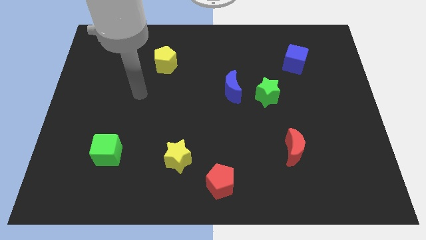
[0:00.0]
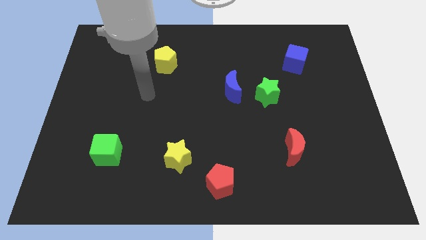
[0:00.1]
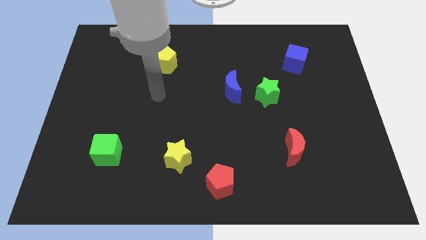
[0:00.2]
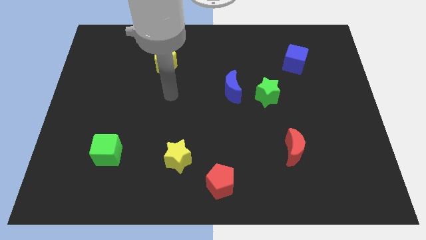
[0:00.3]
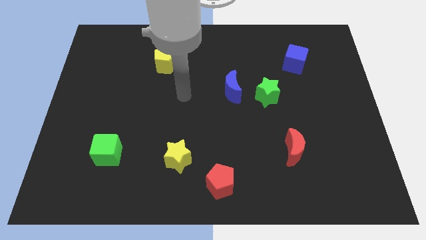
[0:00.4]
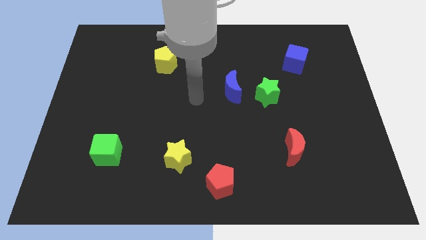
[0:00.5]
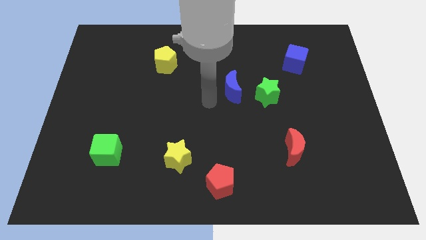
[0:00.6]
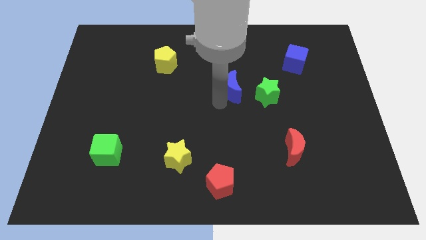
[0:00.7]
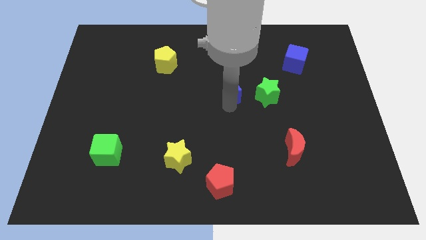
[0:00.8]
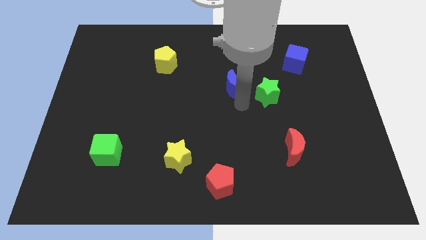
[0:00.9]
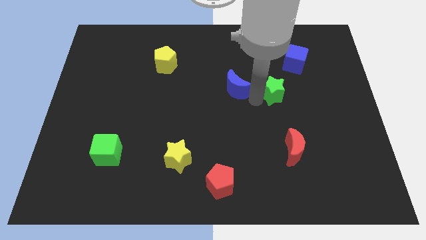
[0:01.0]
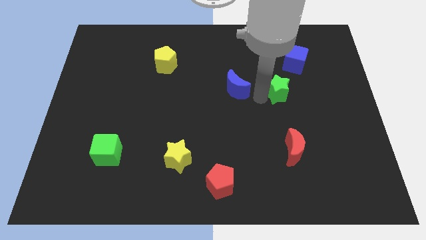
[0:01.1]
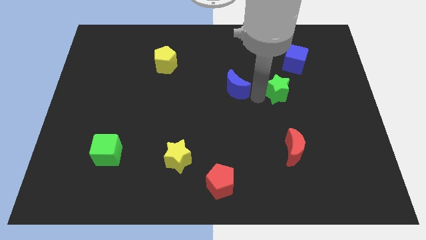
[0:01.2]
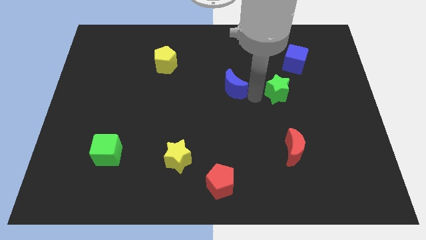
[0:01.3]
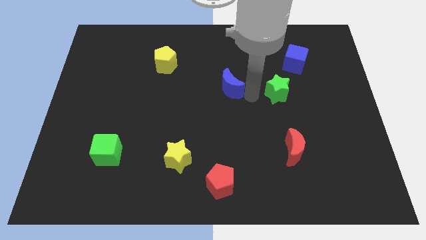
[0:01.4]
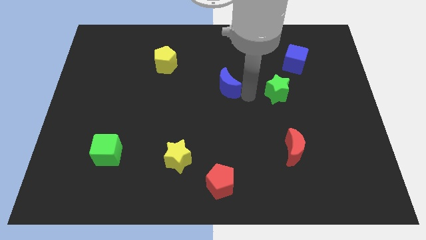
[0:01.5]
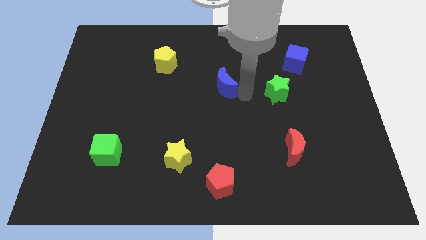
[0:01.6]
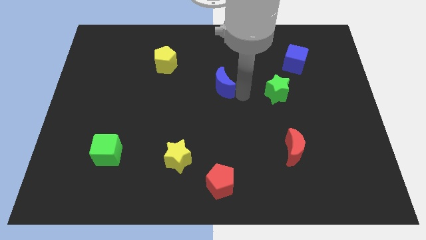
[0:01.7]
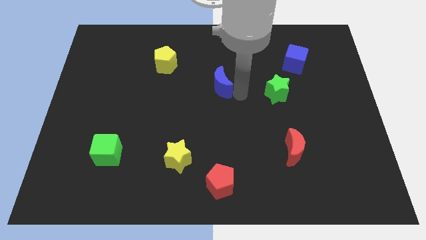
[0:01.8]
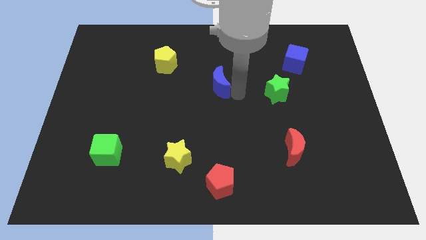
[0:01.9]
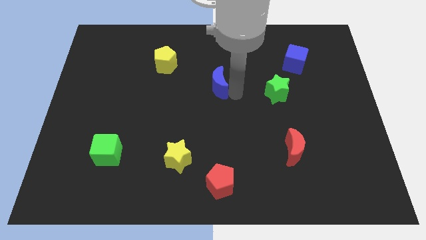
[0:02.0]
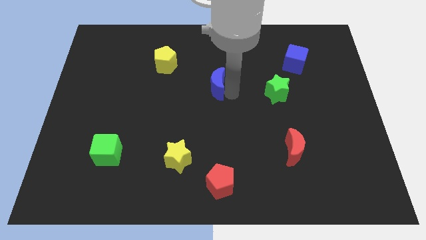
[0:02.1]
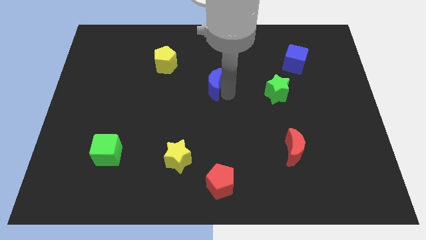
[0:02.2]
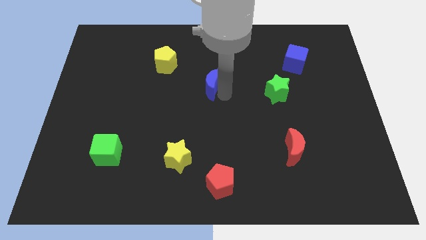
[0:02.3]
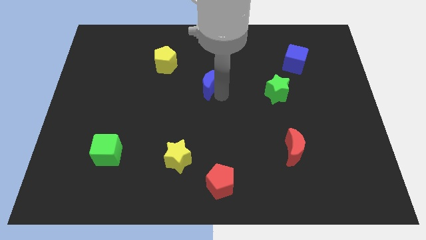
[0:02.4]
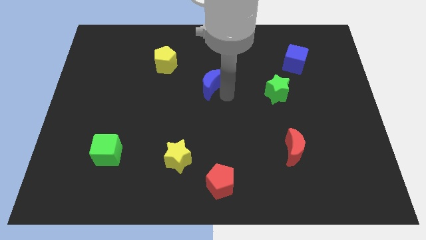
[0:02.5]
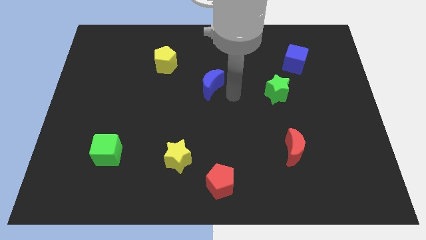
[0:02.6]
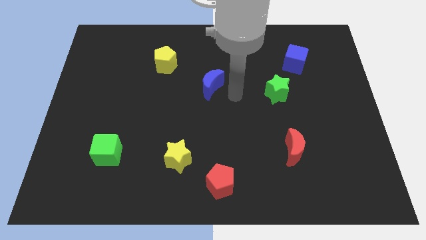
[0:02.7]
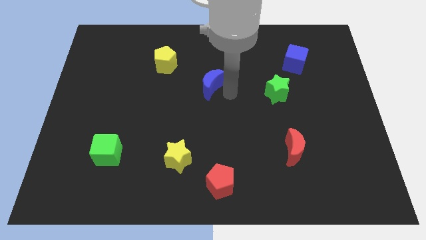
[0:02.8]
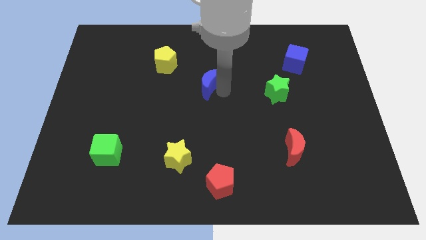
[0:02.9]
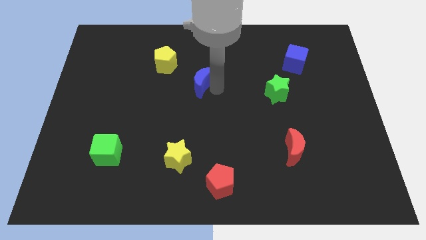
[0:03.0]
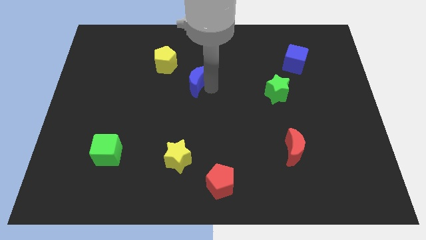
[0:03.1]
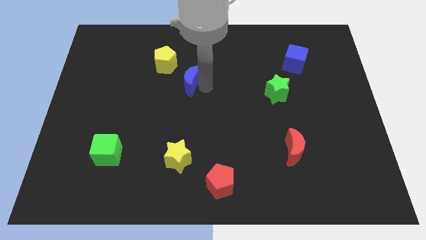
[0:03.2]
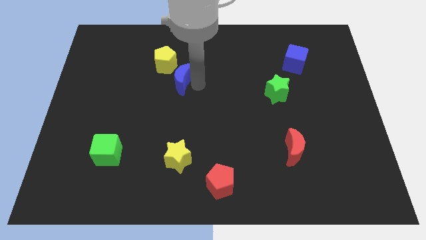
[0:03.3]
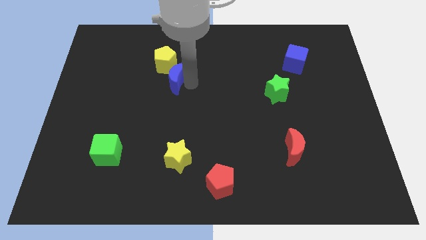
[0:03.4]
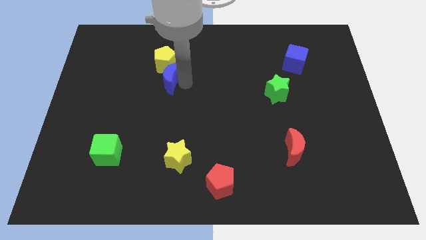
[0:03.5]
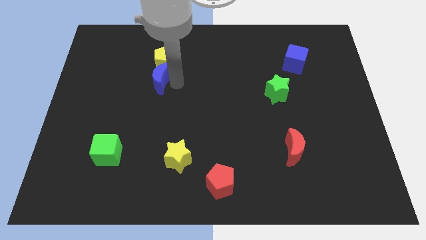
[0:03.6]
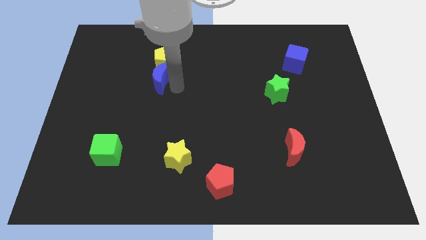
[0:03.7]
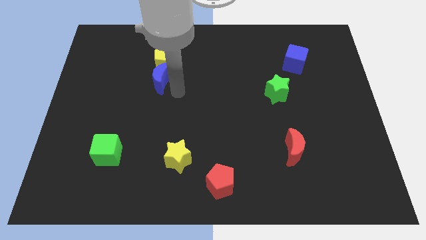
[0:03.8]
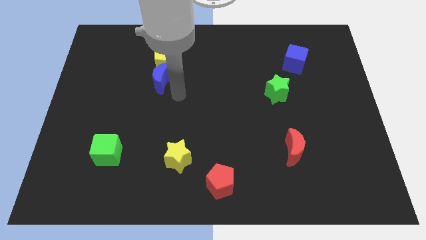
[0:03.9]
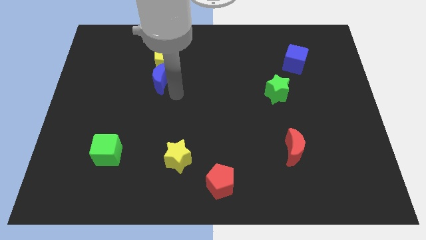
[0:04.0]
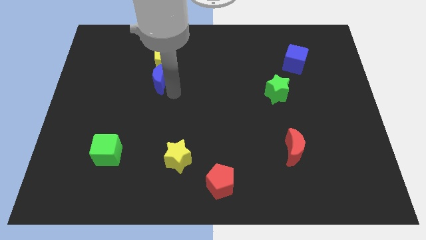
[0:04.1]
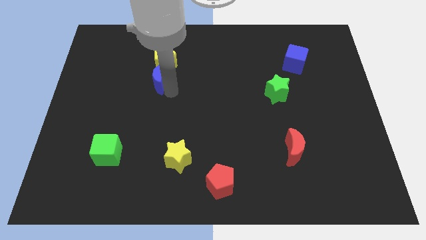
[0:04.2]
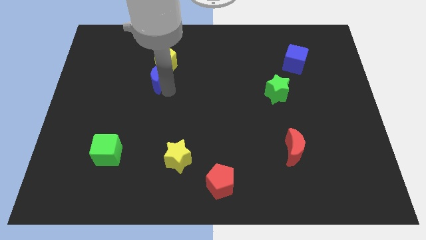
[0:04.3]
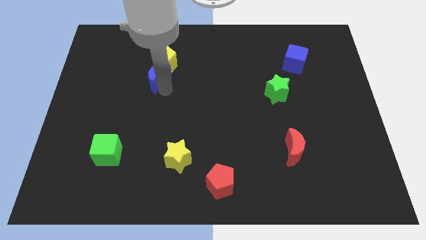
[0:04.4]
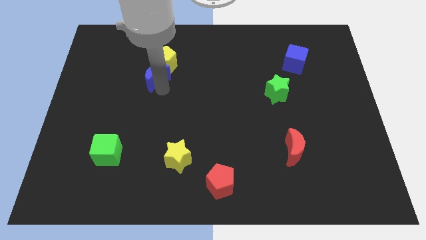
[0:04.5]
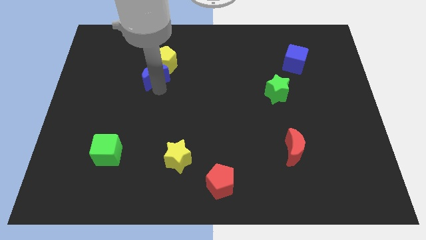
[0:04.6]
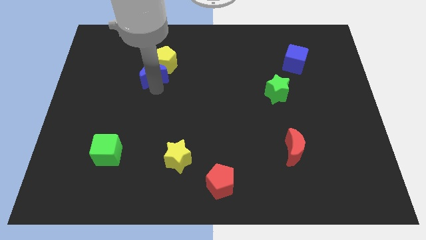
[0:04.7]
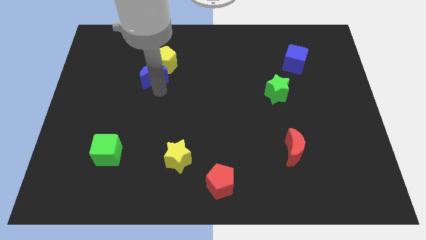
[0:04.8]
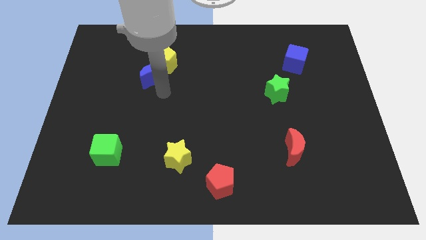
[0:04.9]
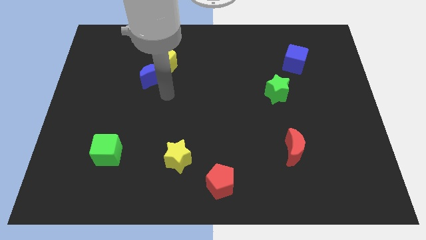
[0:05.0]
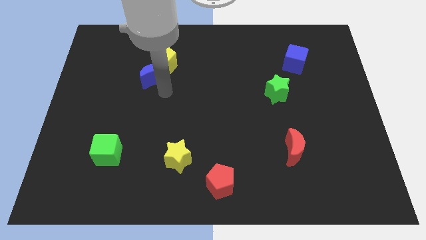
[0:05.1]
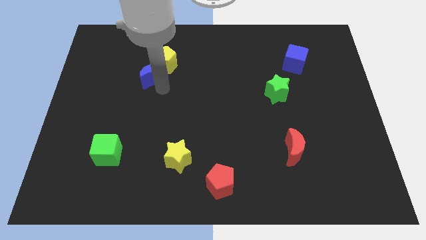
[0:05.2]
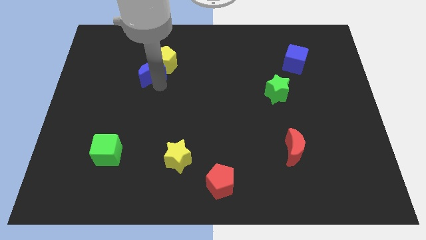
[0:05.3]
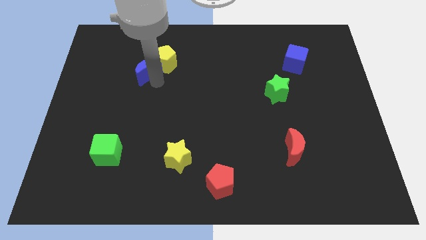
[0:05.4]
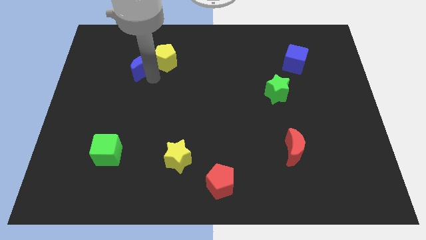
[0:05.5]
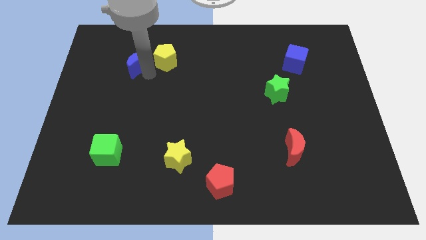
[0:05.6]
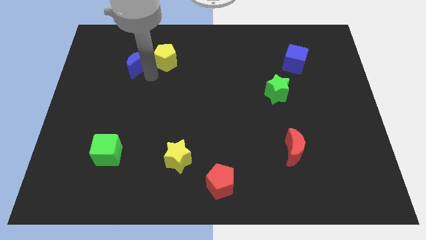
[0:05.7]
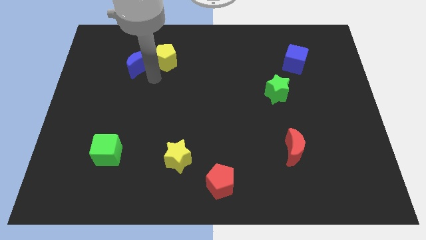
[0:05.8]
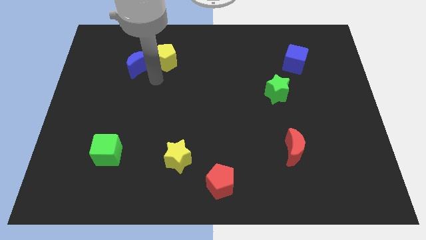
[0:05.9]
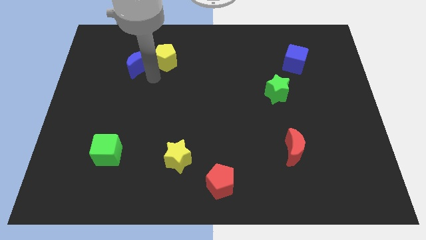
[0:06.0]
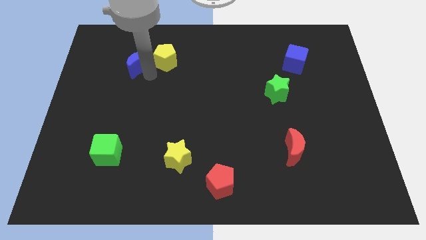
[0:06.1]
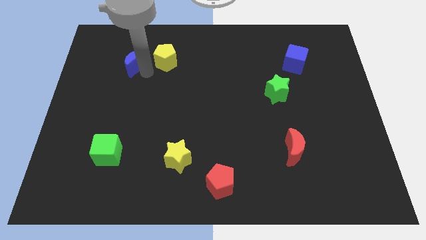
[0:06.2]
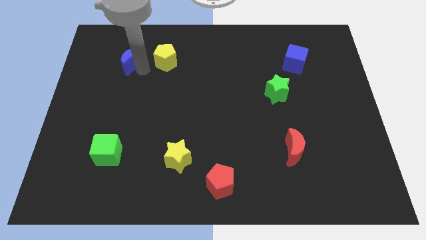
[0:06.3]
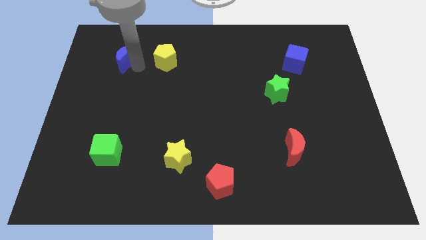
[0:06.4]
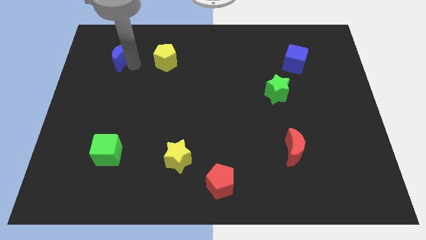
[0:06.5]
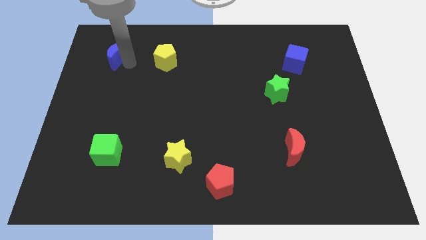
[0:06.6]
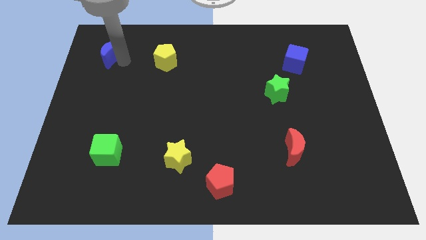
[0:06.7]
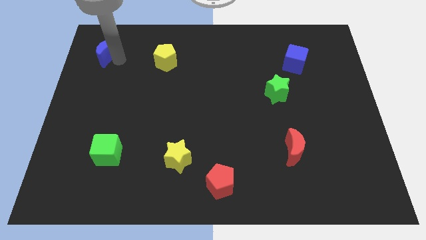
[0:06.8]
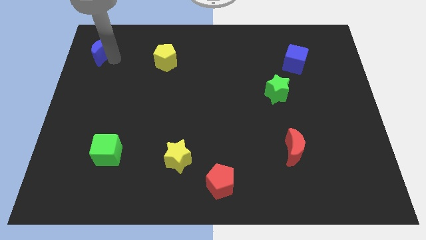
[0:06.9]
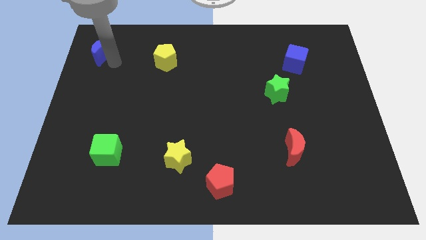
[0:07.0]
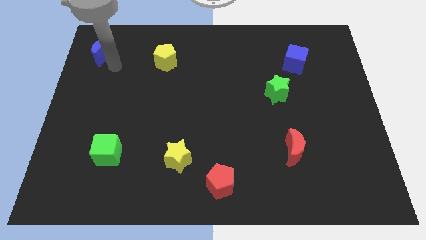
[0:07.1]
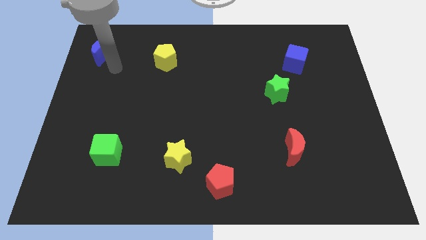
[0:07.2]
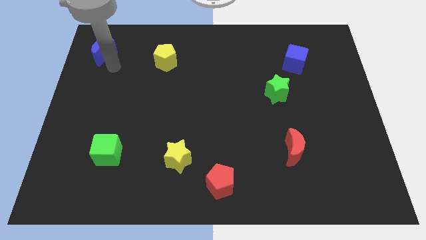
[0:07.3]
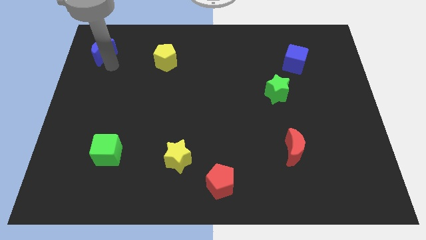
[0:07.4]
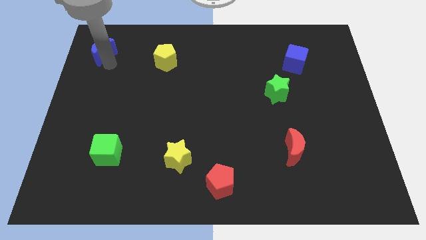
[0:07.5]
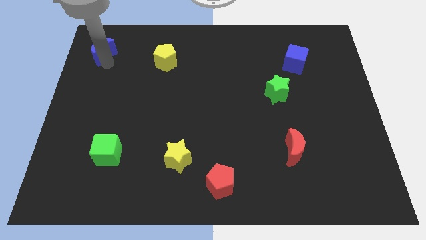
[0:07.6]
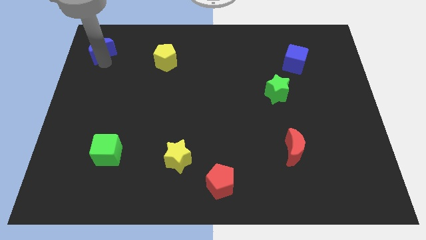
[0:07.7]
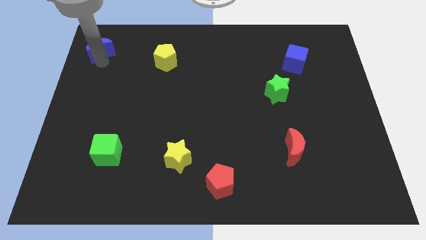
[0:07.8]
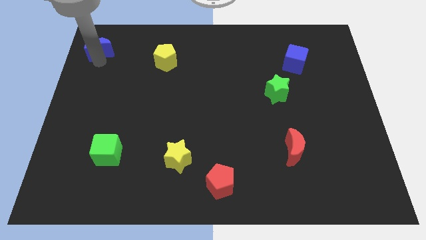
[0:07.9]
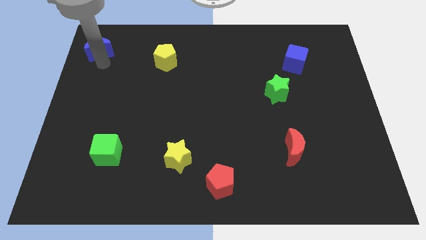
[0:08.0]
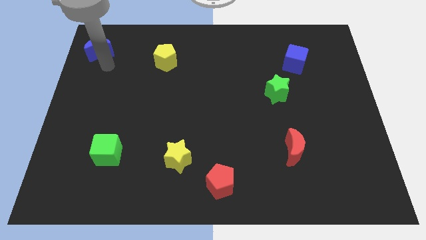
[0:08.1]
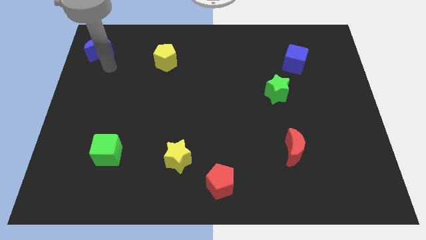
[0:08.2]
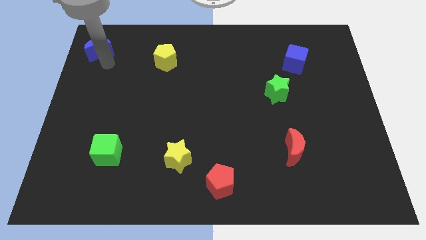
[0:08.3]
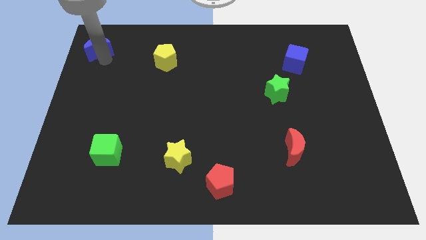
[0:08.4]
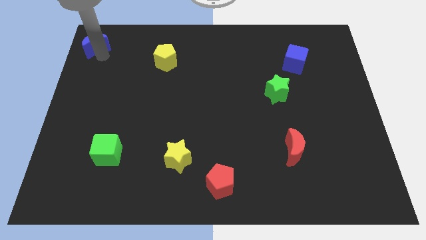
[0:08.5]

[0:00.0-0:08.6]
put the blue moon to the top left corner
